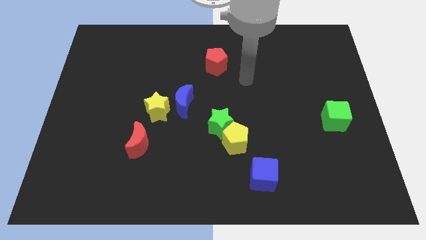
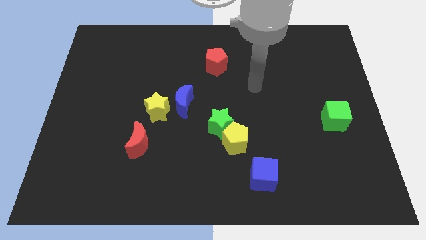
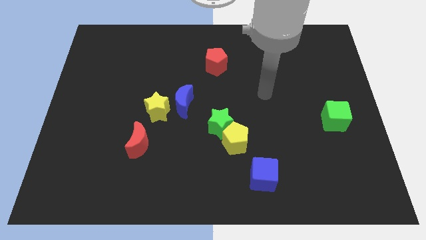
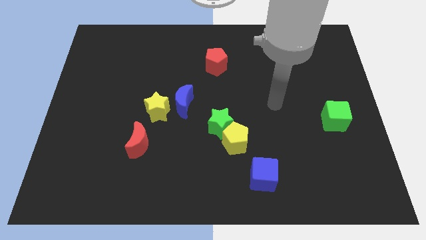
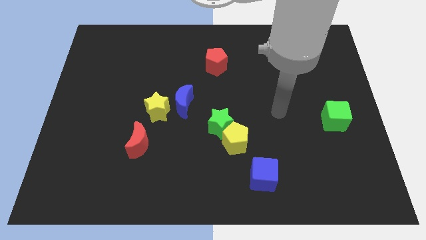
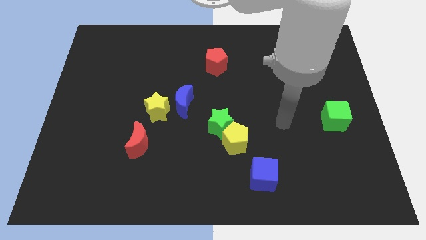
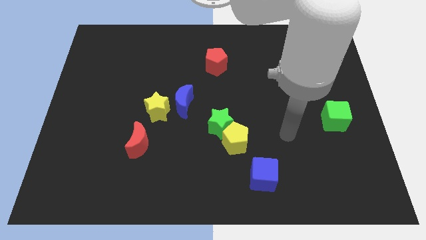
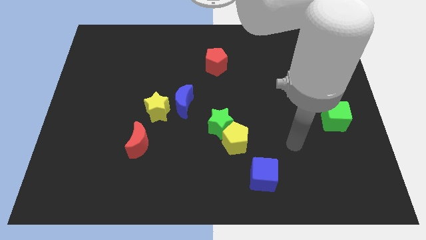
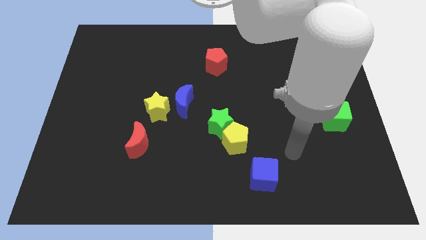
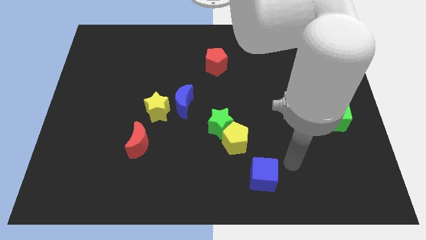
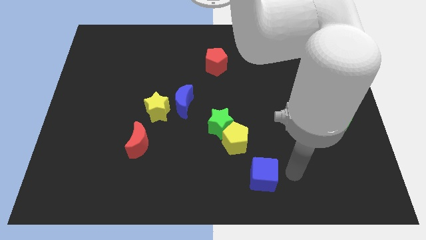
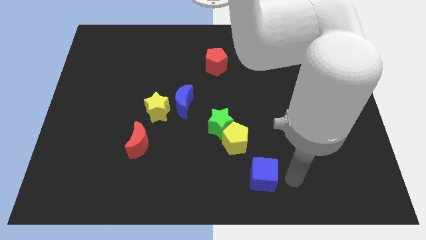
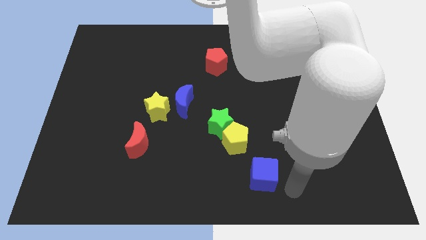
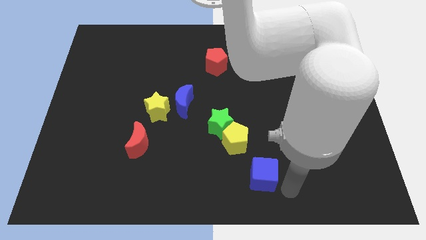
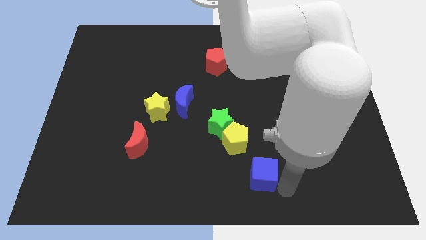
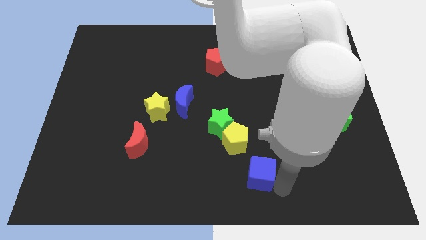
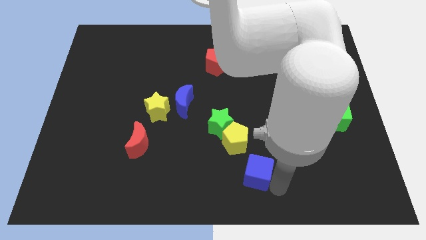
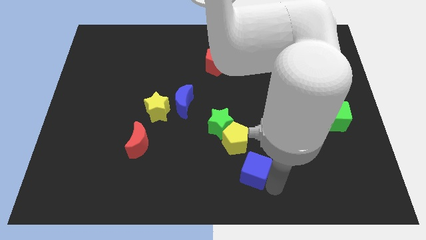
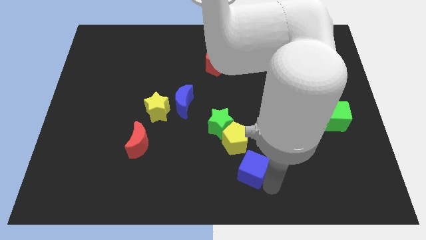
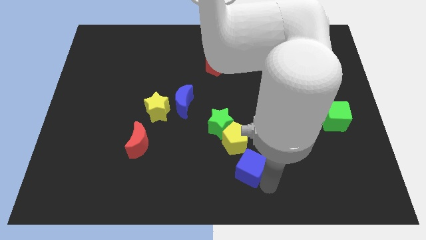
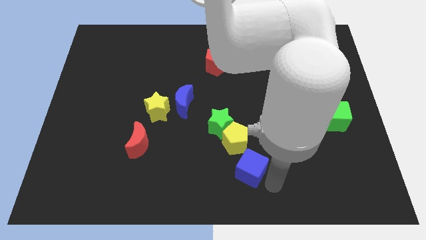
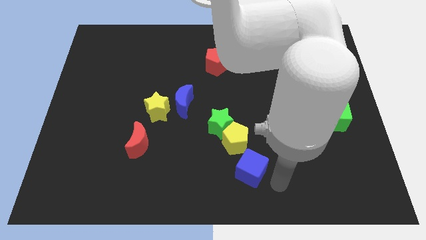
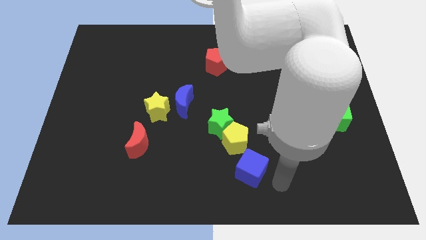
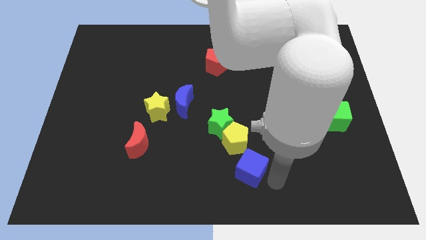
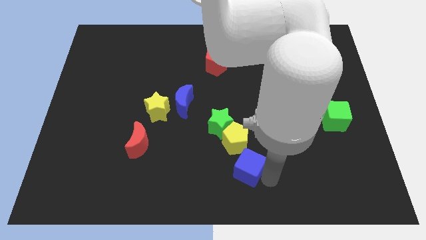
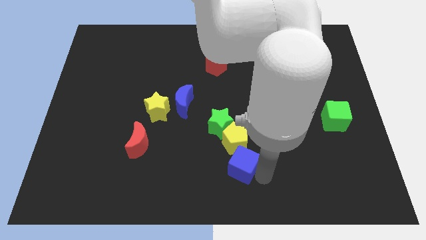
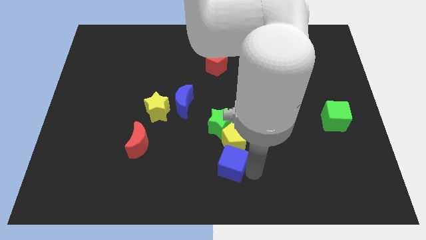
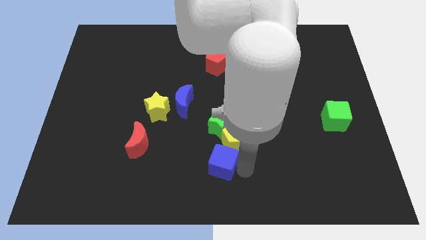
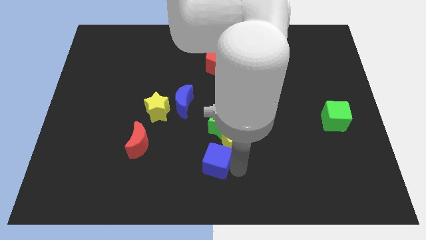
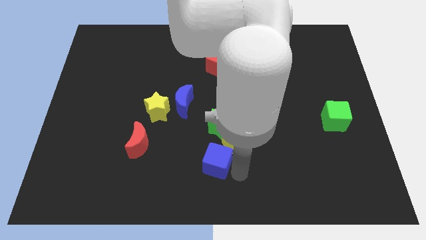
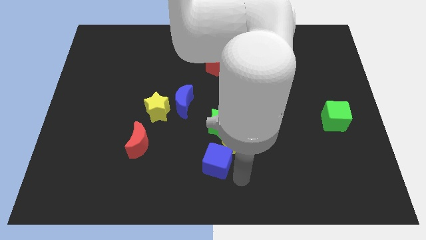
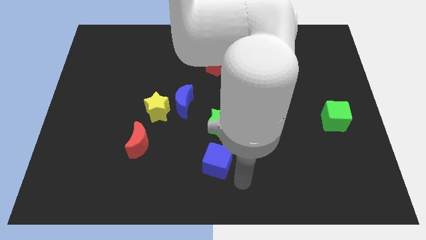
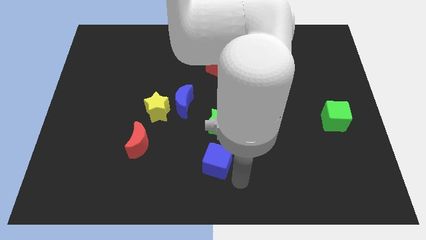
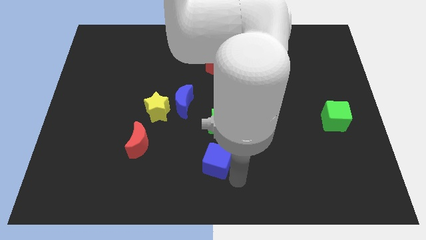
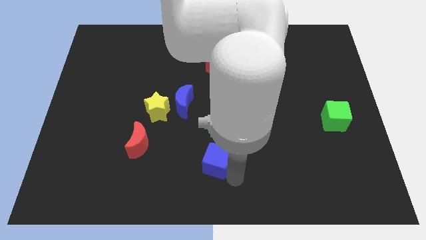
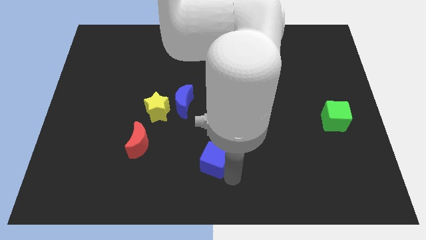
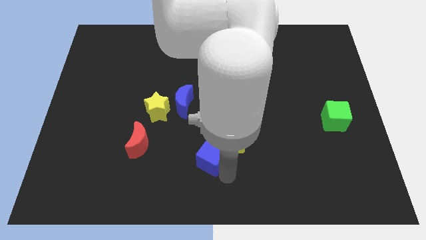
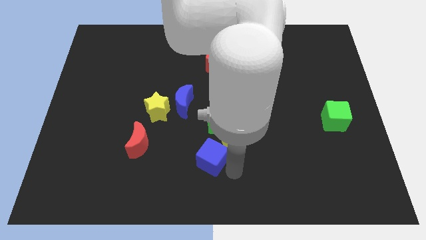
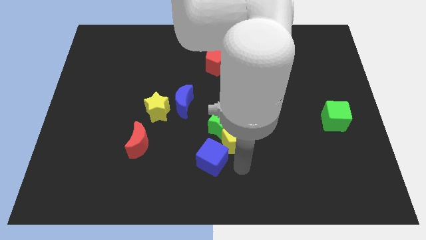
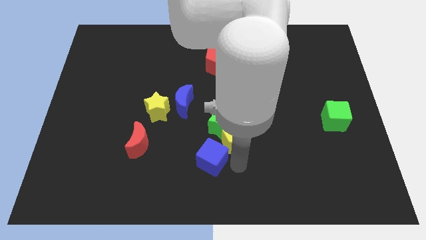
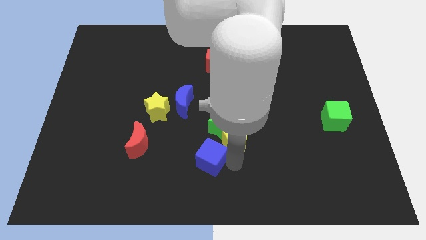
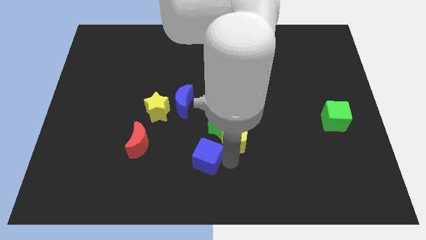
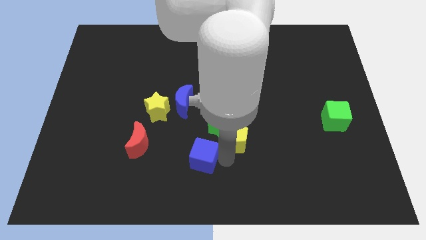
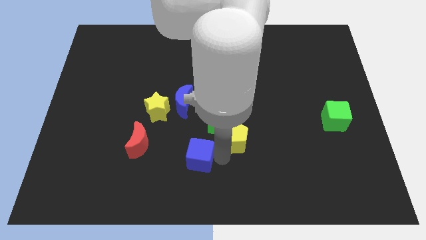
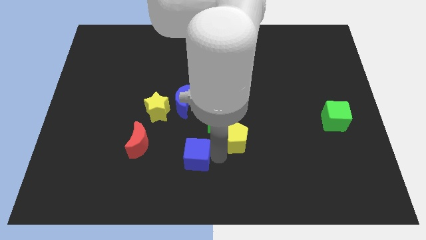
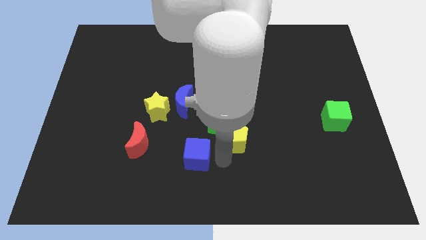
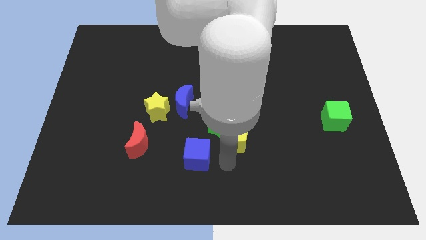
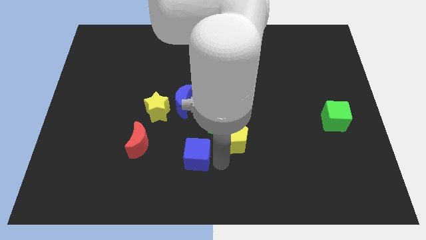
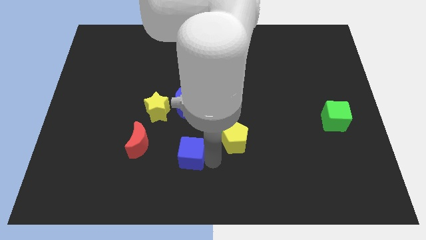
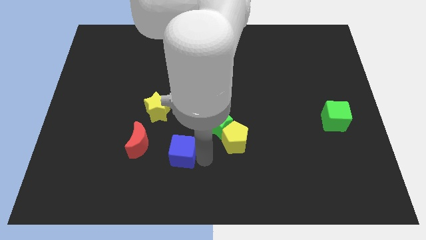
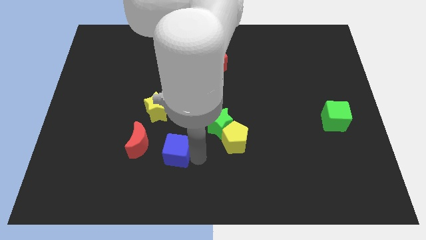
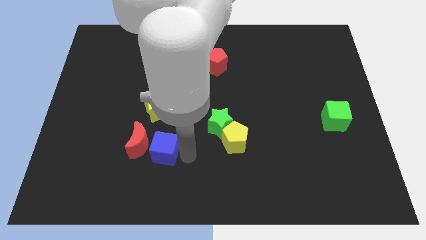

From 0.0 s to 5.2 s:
slide the blue cube next to the red moon

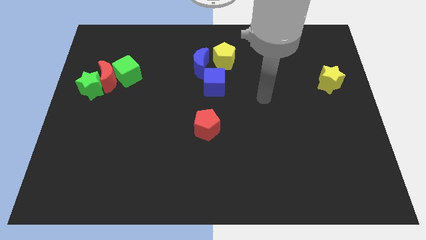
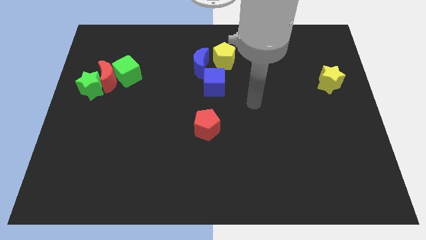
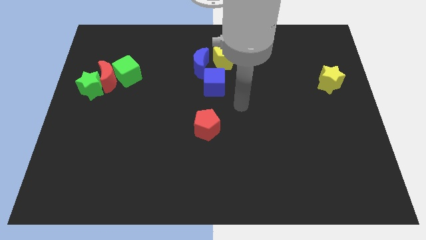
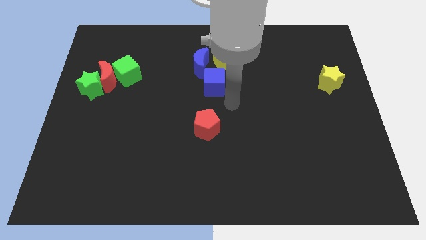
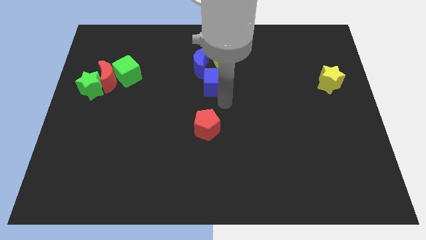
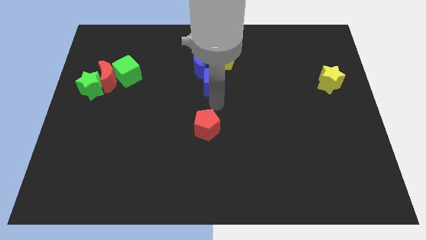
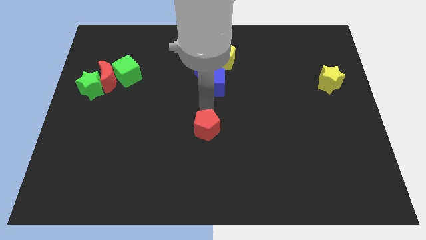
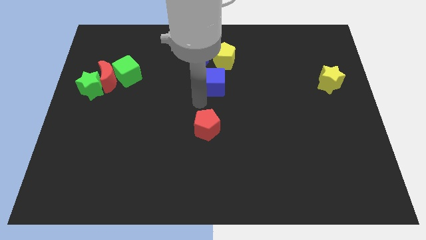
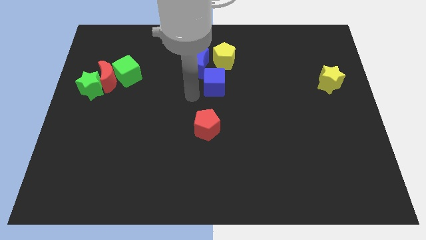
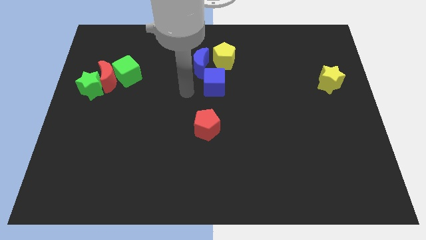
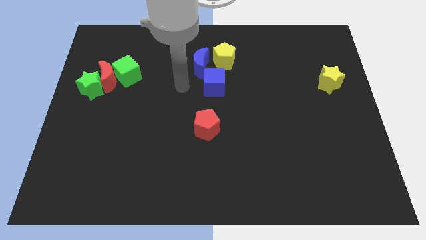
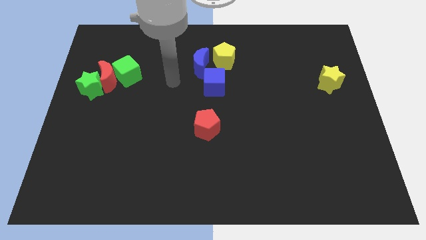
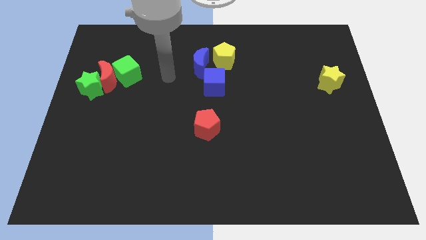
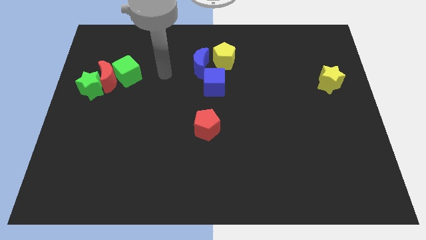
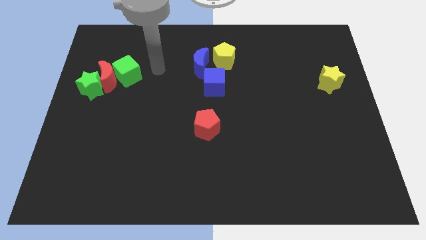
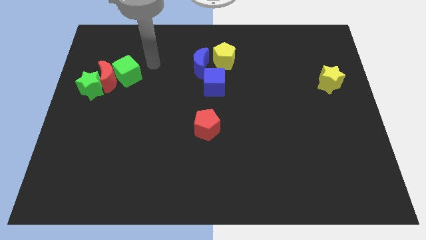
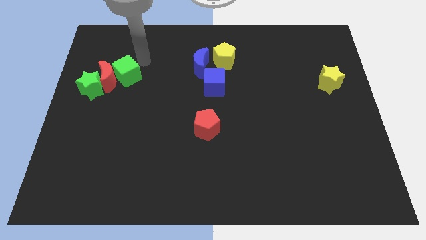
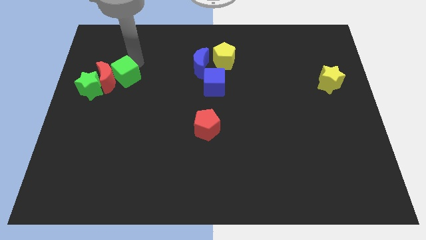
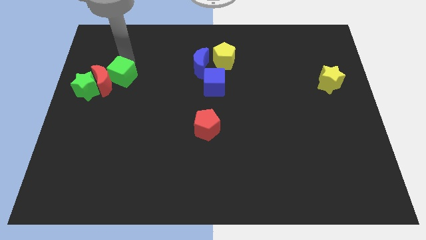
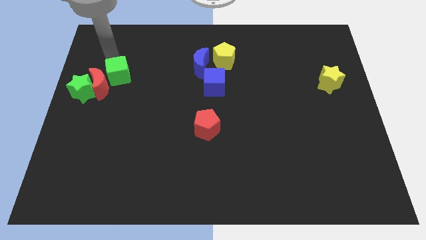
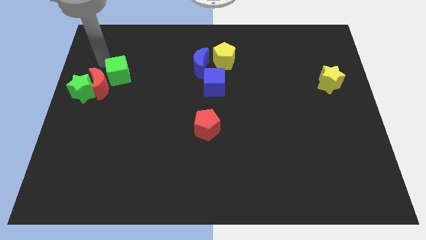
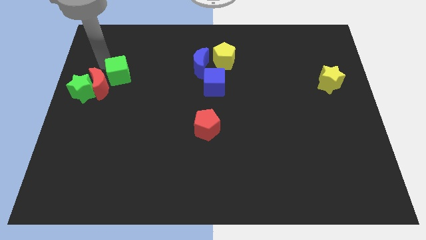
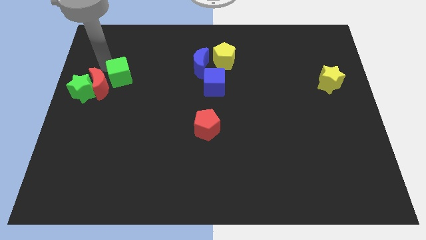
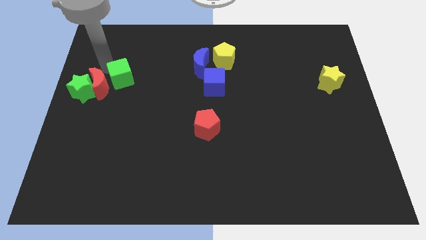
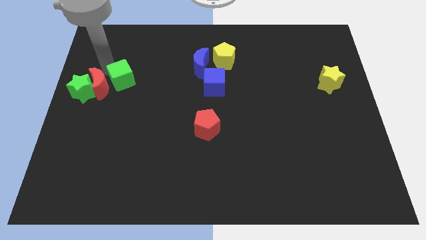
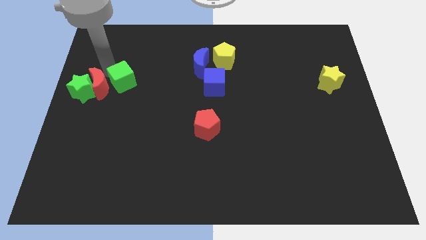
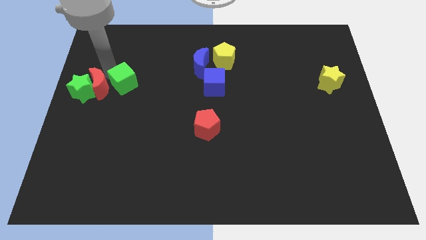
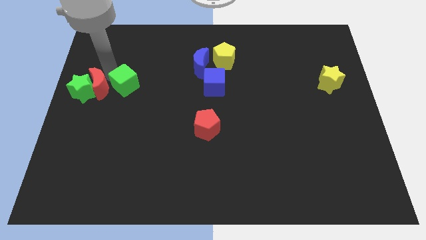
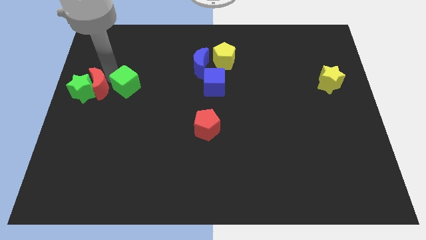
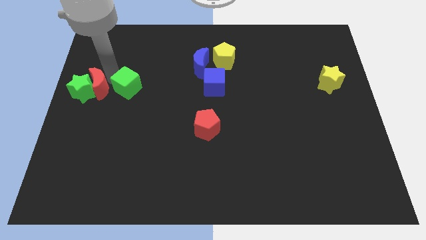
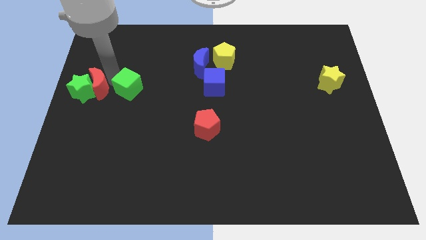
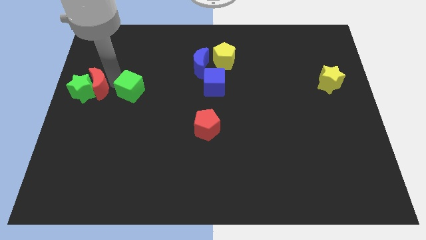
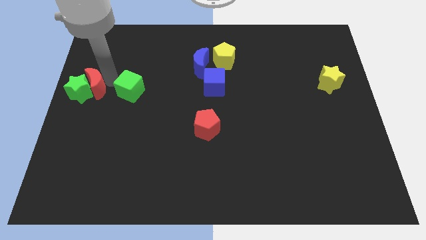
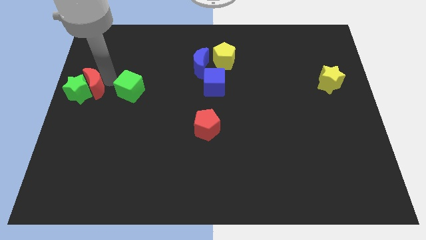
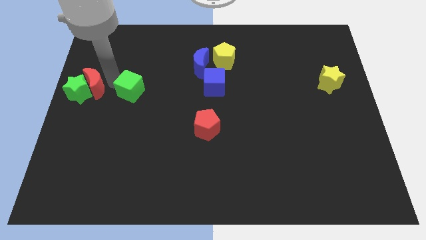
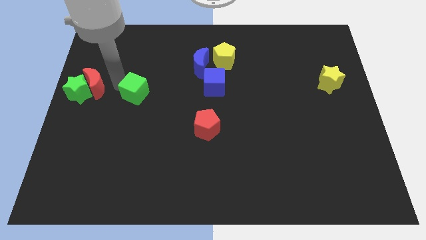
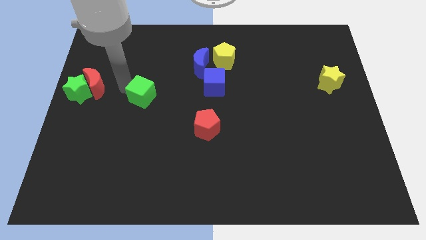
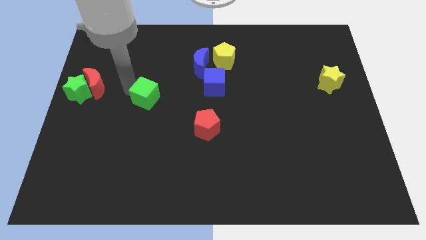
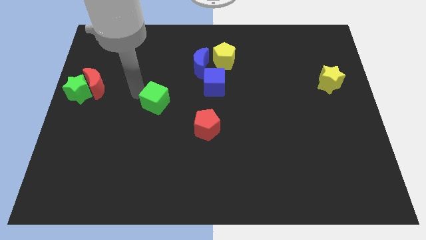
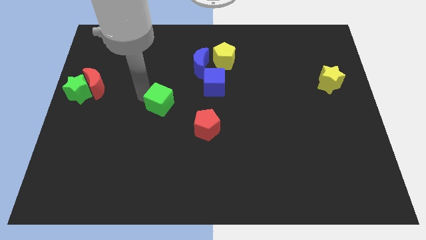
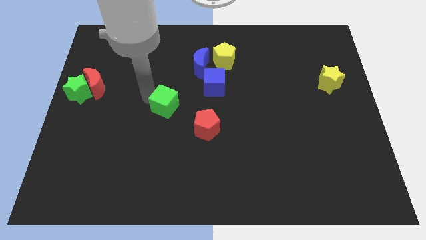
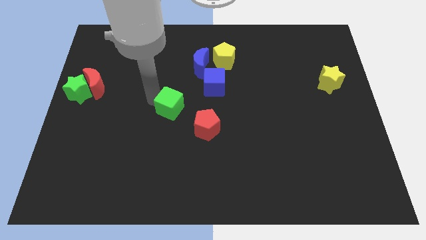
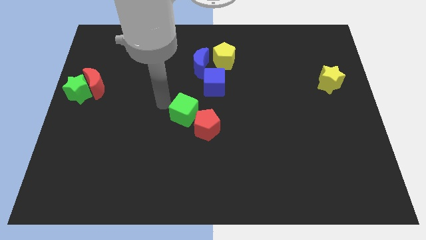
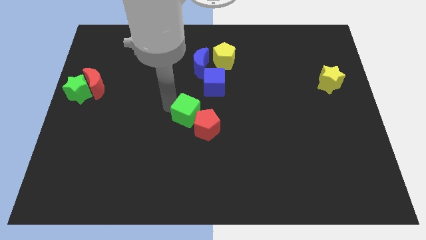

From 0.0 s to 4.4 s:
push the green cube next to the red pentagon
